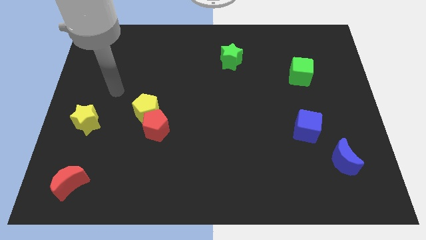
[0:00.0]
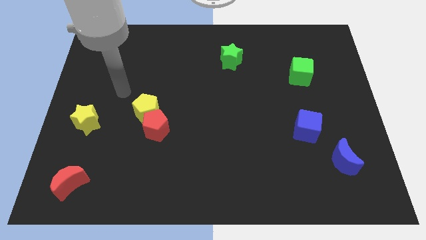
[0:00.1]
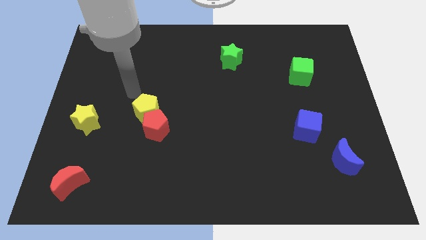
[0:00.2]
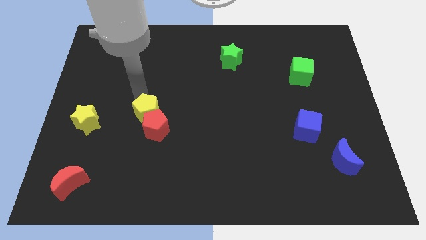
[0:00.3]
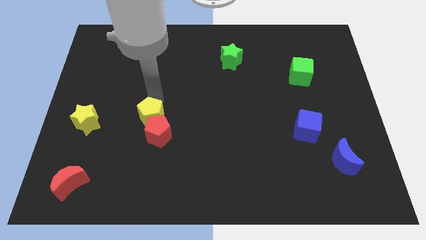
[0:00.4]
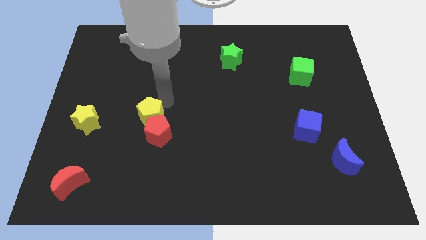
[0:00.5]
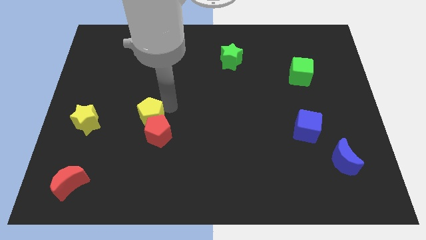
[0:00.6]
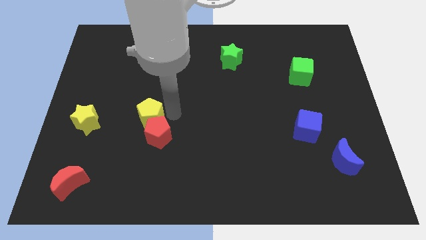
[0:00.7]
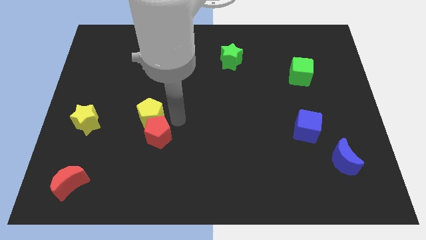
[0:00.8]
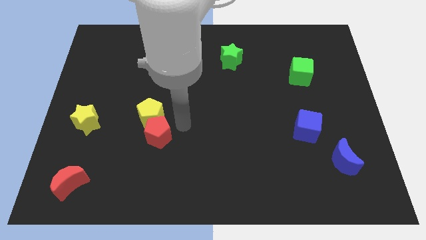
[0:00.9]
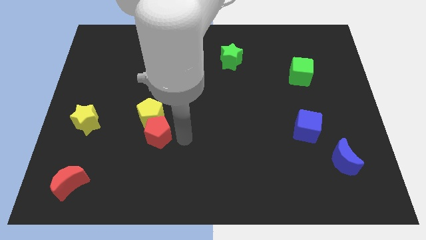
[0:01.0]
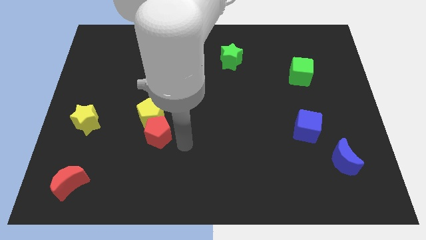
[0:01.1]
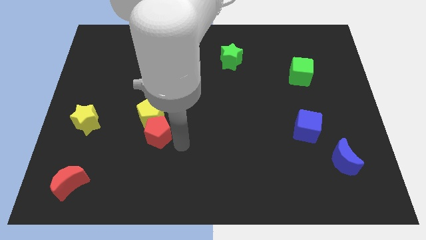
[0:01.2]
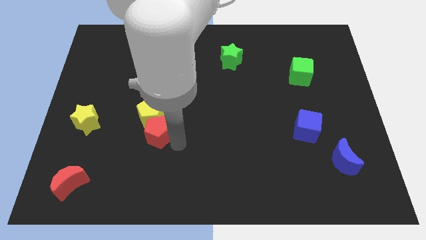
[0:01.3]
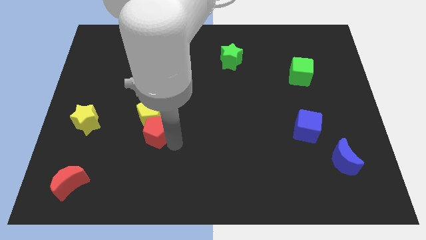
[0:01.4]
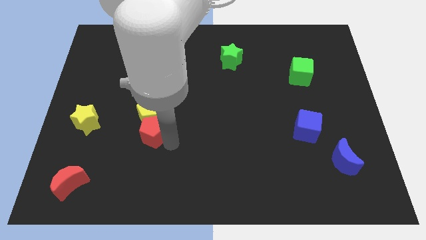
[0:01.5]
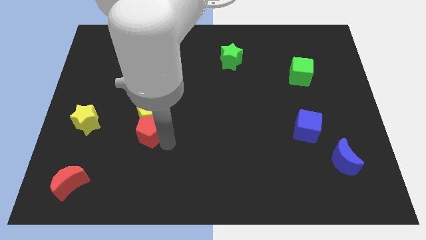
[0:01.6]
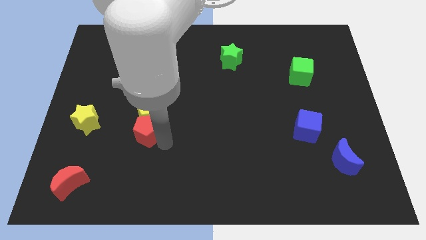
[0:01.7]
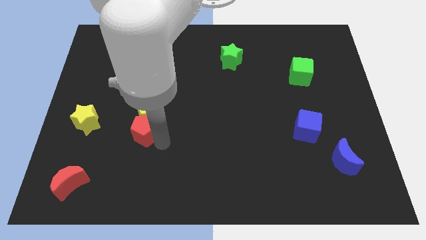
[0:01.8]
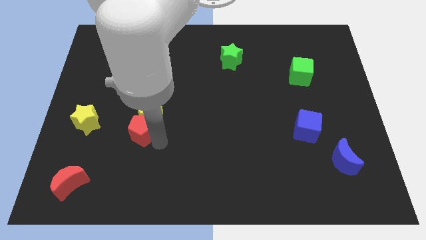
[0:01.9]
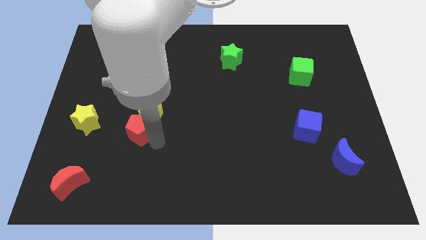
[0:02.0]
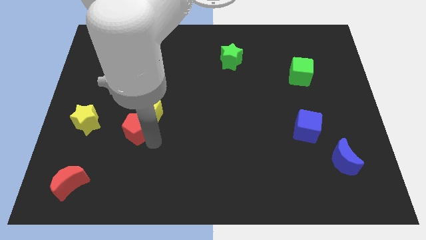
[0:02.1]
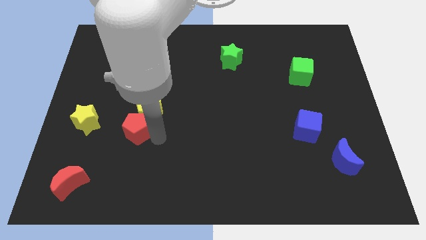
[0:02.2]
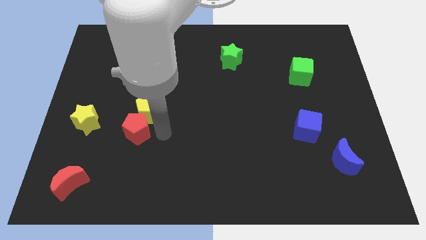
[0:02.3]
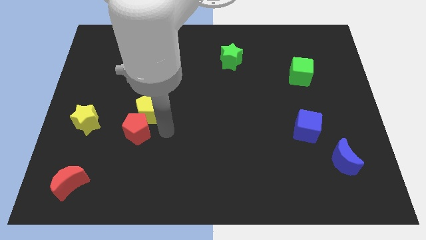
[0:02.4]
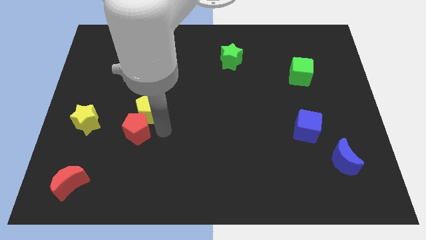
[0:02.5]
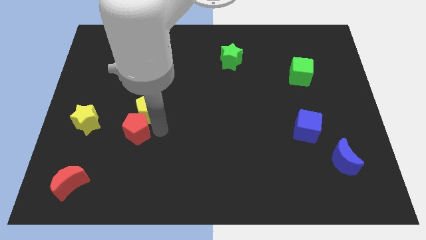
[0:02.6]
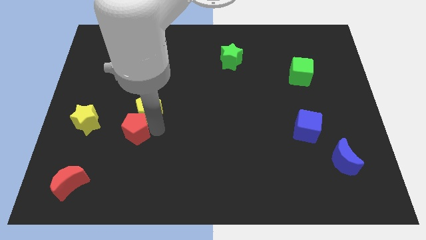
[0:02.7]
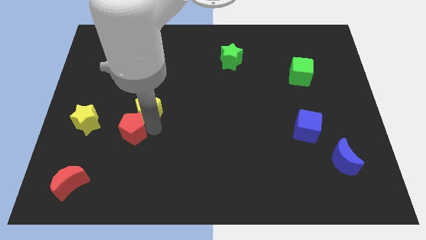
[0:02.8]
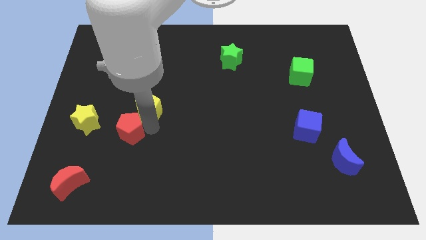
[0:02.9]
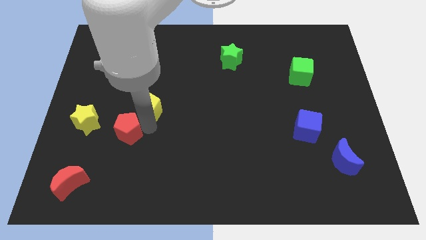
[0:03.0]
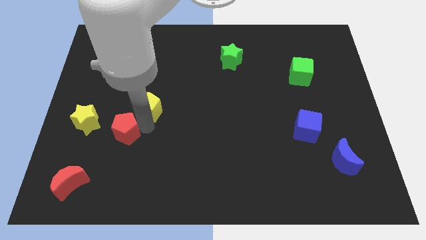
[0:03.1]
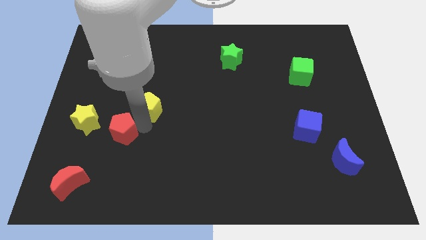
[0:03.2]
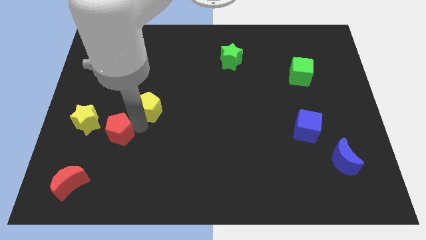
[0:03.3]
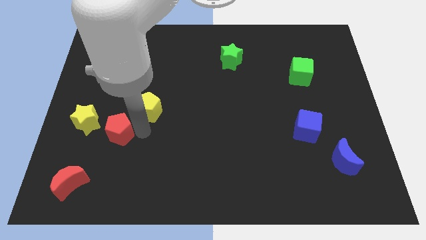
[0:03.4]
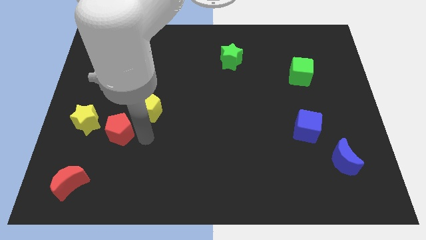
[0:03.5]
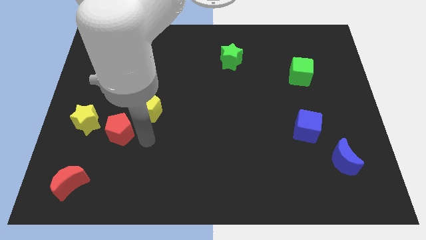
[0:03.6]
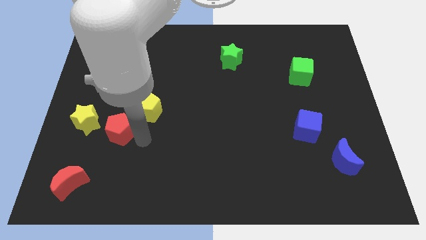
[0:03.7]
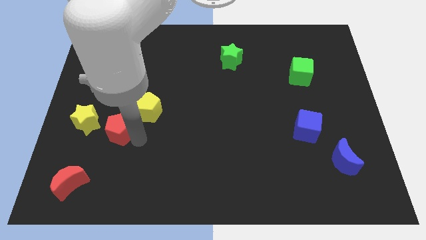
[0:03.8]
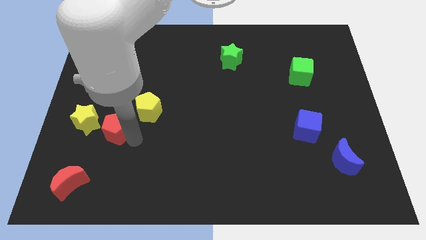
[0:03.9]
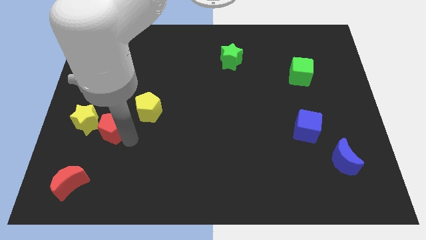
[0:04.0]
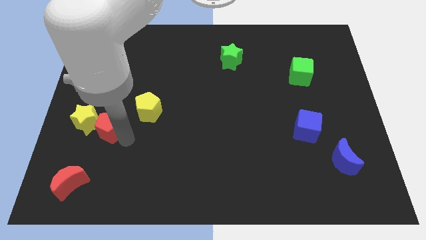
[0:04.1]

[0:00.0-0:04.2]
move the red pentagon close to the yellow star

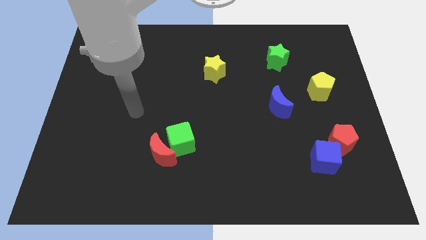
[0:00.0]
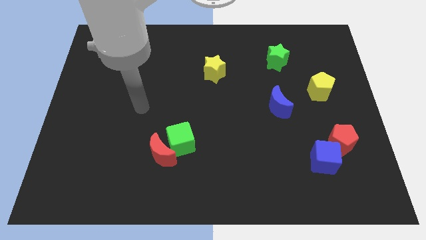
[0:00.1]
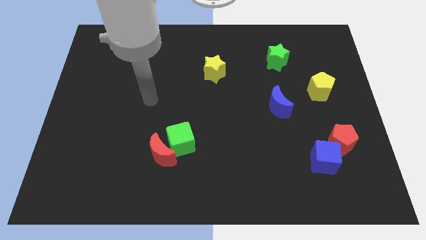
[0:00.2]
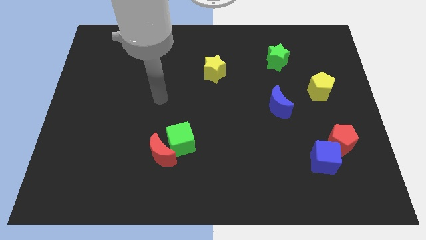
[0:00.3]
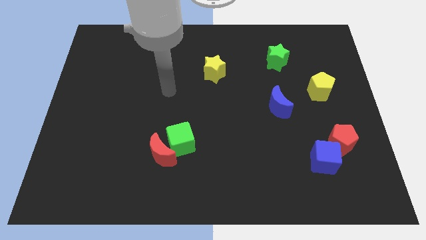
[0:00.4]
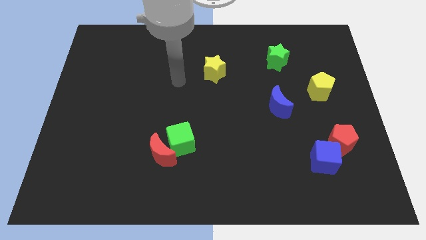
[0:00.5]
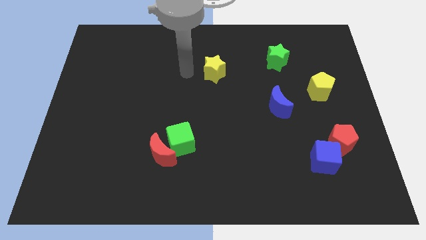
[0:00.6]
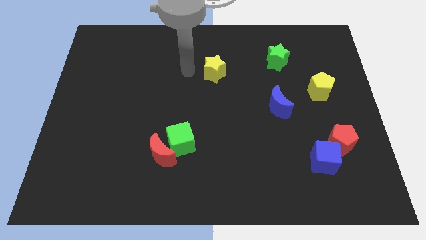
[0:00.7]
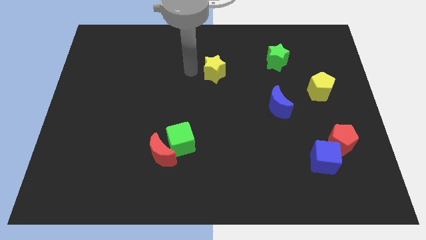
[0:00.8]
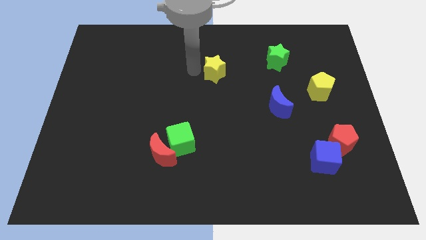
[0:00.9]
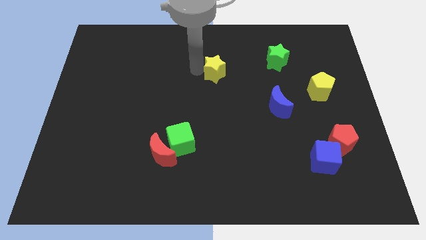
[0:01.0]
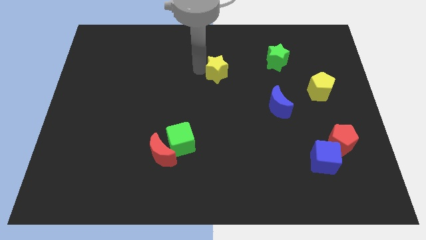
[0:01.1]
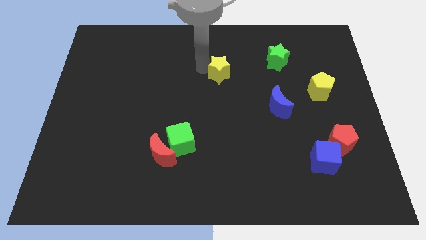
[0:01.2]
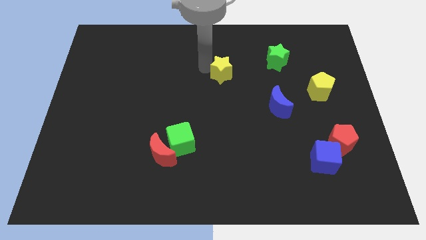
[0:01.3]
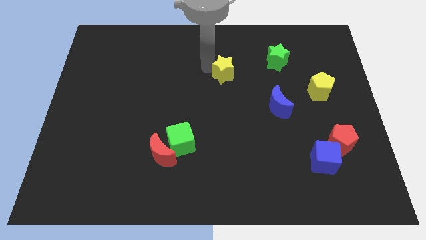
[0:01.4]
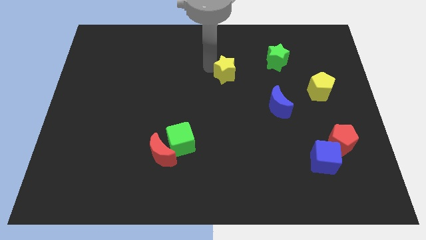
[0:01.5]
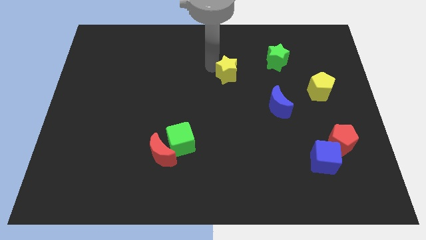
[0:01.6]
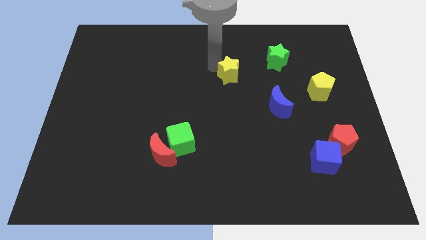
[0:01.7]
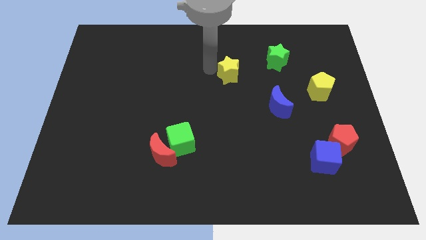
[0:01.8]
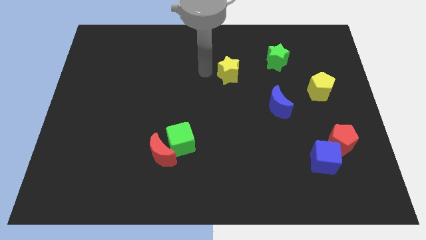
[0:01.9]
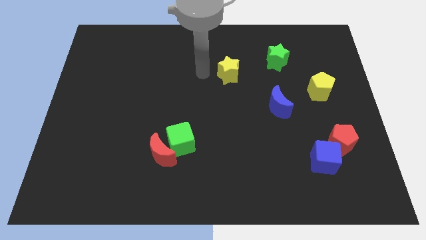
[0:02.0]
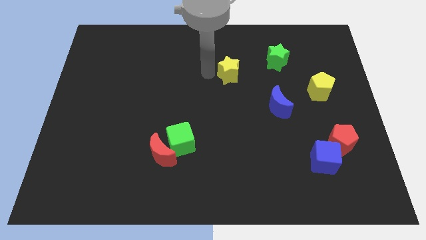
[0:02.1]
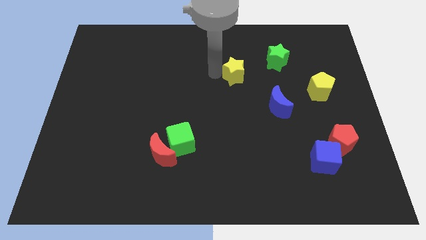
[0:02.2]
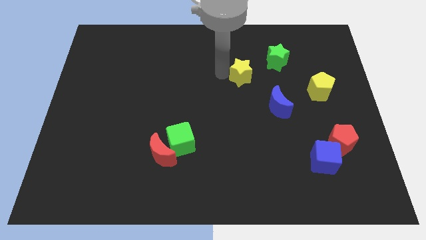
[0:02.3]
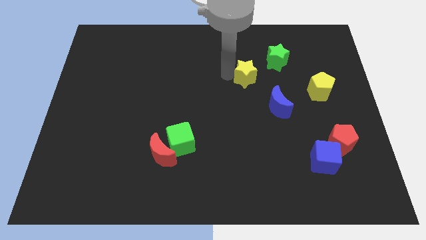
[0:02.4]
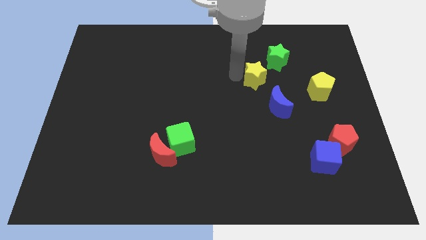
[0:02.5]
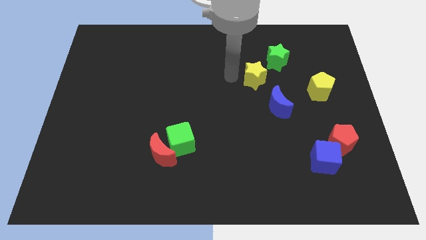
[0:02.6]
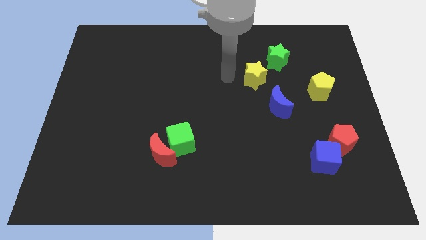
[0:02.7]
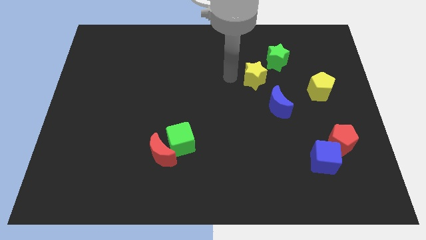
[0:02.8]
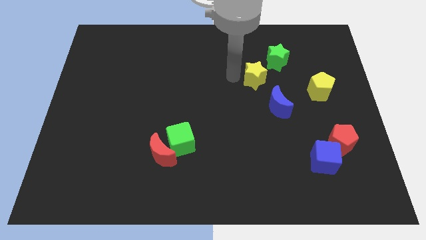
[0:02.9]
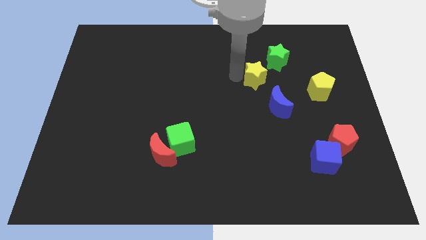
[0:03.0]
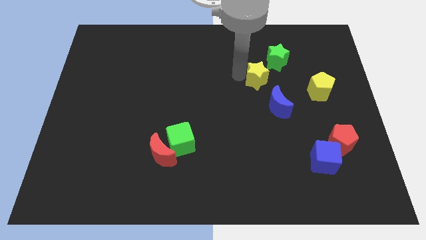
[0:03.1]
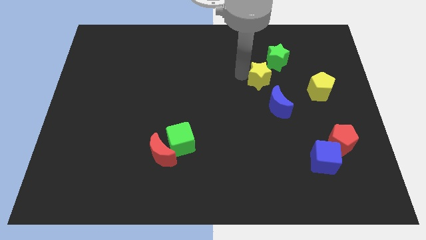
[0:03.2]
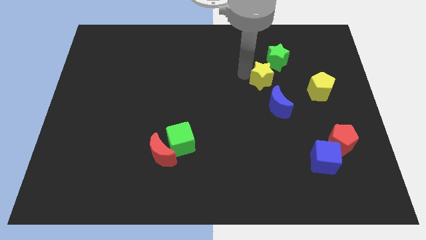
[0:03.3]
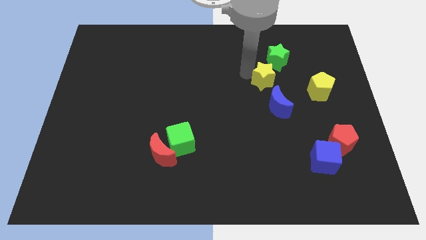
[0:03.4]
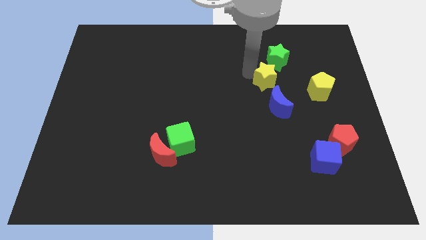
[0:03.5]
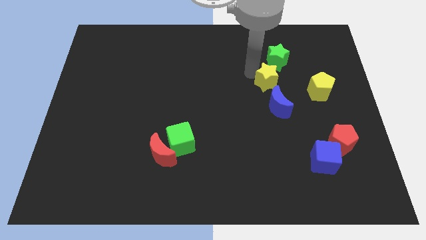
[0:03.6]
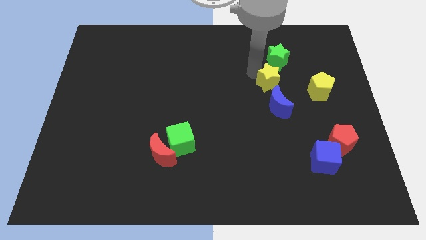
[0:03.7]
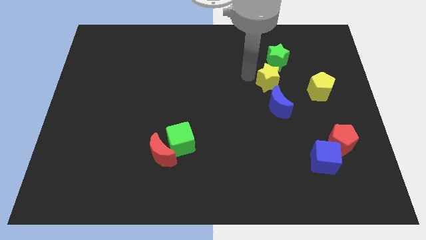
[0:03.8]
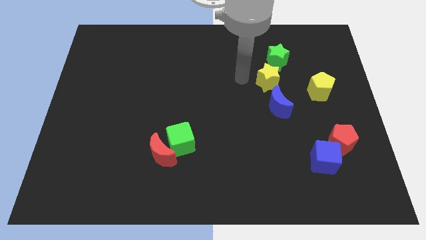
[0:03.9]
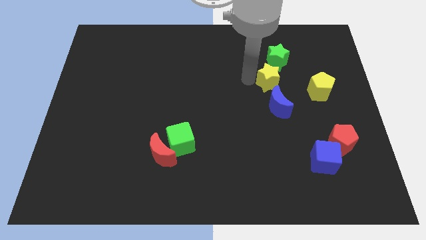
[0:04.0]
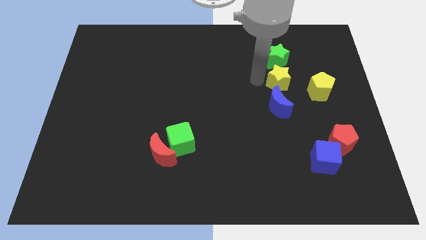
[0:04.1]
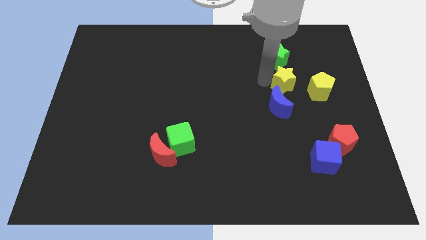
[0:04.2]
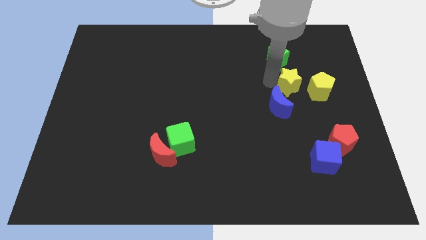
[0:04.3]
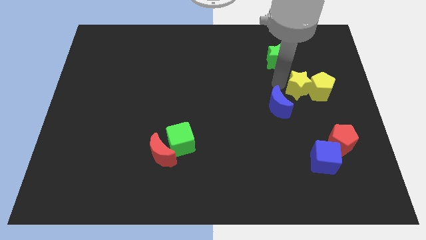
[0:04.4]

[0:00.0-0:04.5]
slide the yellow star towards the yellow pentagon
